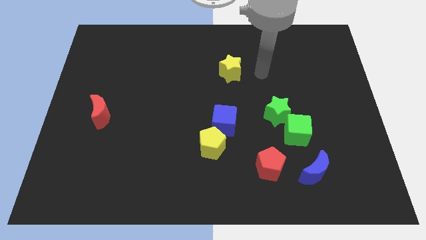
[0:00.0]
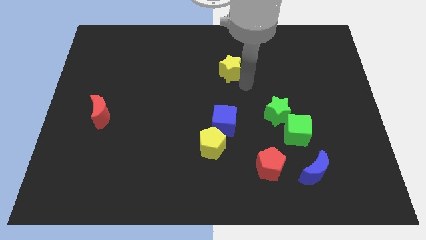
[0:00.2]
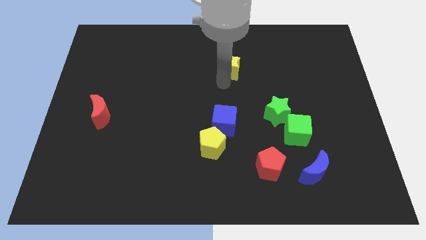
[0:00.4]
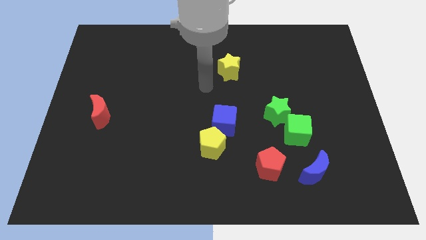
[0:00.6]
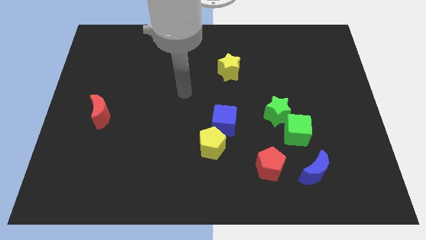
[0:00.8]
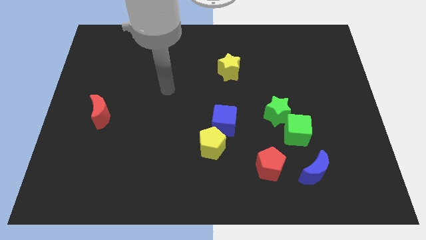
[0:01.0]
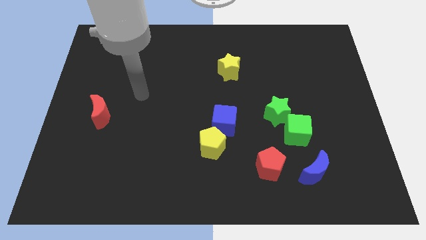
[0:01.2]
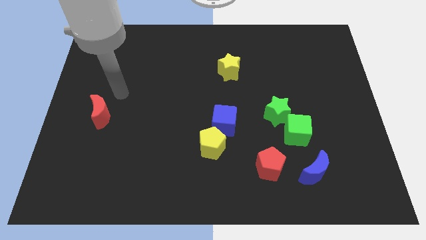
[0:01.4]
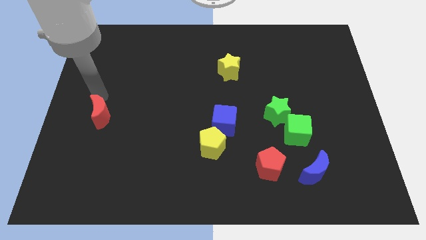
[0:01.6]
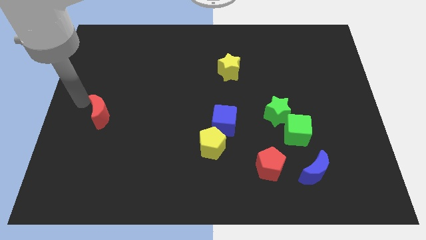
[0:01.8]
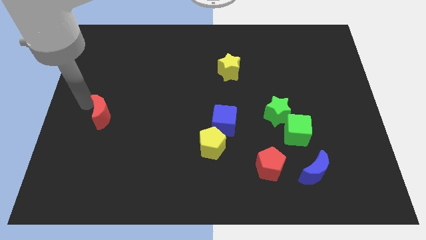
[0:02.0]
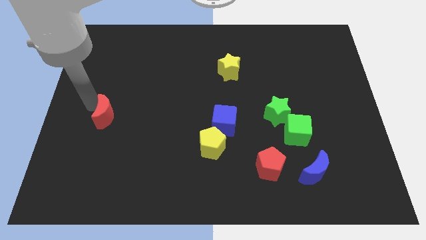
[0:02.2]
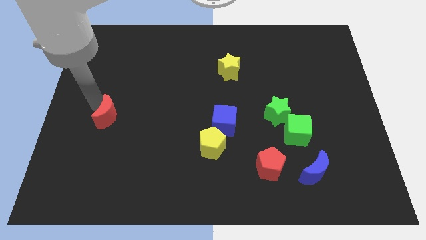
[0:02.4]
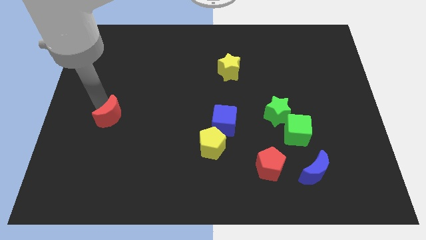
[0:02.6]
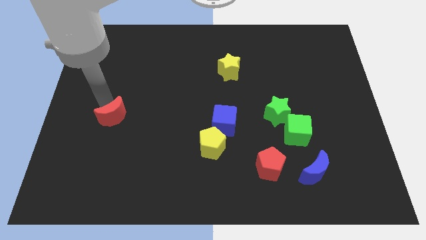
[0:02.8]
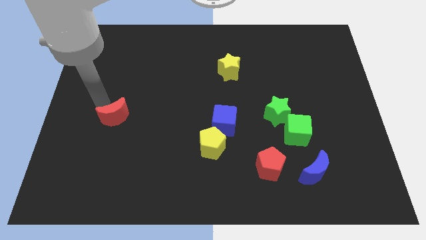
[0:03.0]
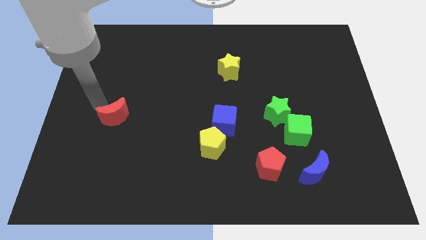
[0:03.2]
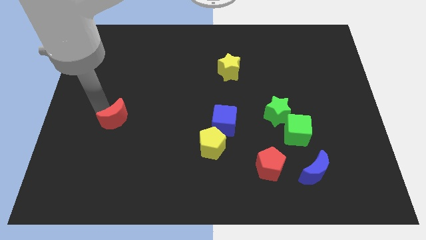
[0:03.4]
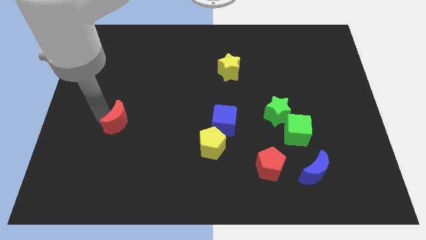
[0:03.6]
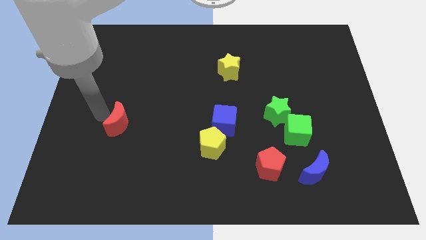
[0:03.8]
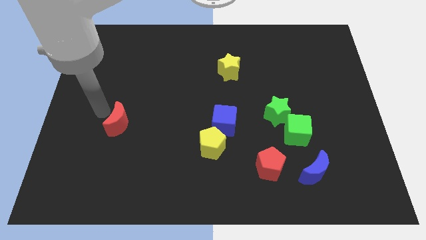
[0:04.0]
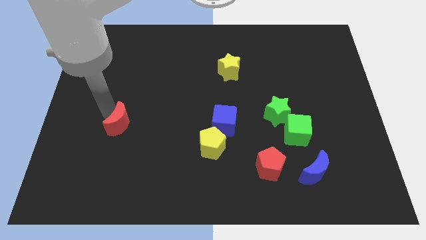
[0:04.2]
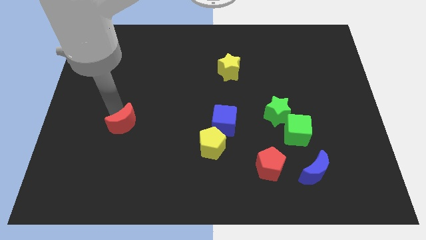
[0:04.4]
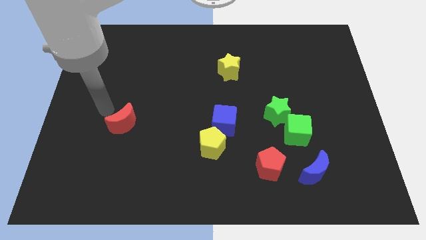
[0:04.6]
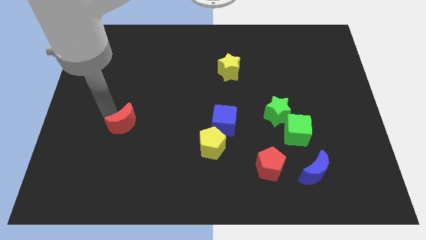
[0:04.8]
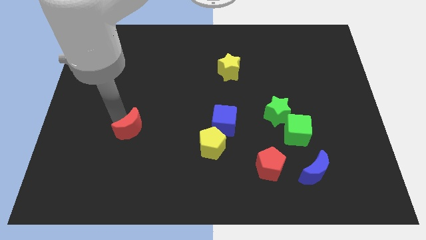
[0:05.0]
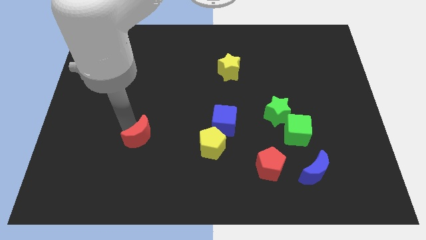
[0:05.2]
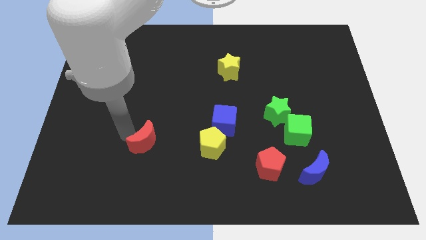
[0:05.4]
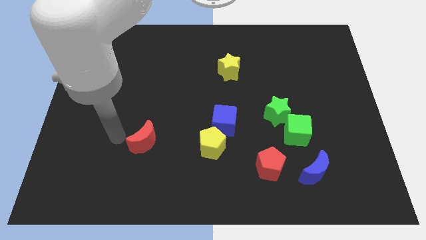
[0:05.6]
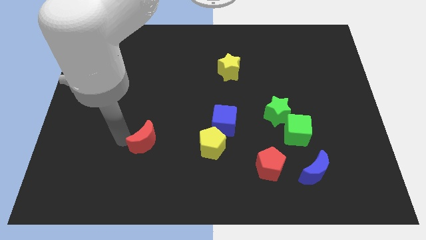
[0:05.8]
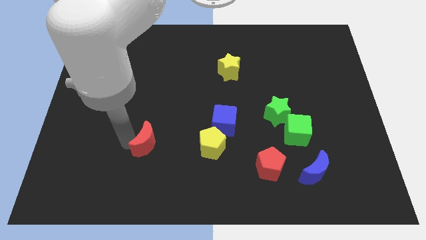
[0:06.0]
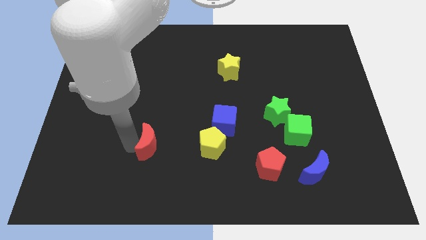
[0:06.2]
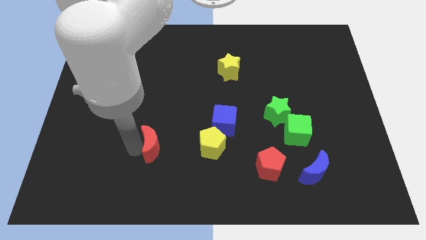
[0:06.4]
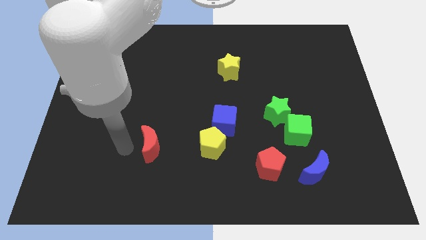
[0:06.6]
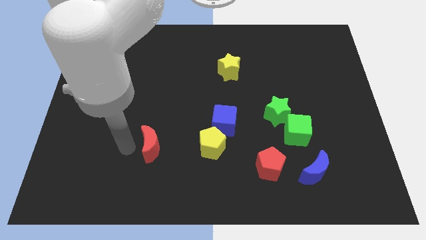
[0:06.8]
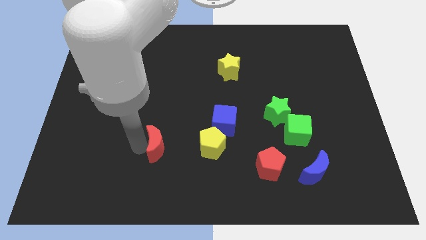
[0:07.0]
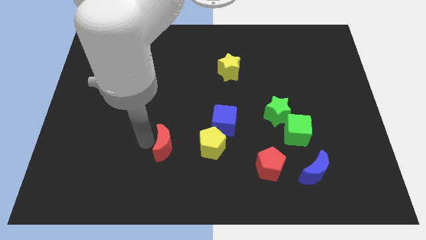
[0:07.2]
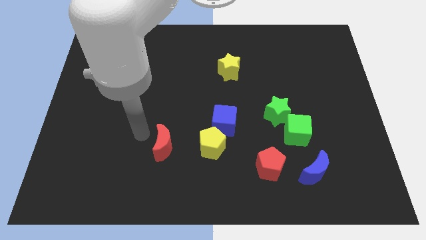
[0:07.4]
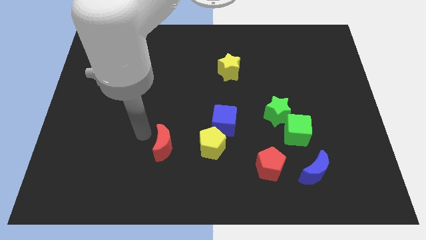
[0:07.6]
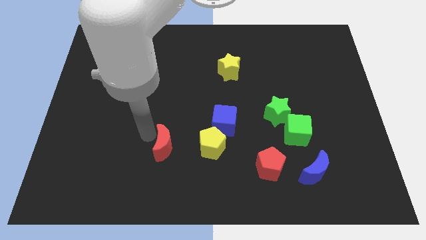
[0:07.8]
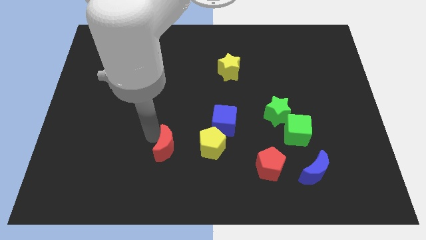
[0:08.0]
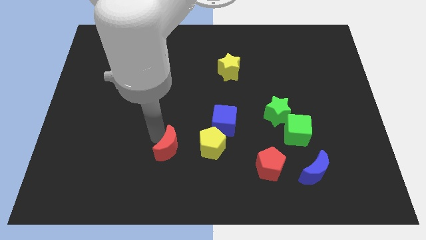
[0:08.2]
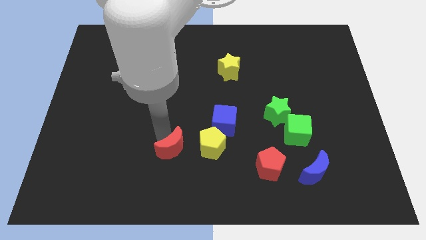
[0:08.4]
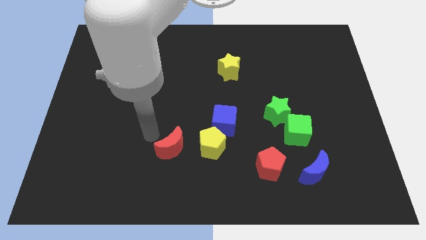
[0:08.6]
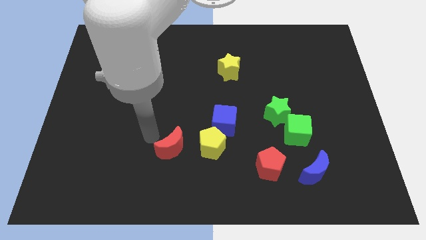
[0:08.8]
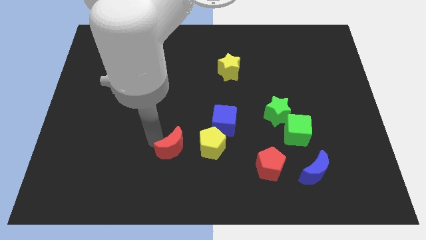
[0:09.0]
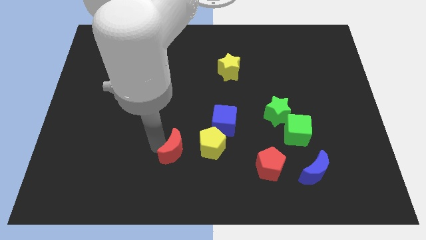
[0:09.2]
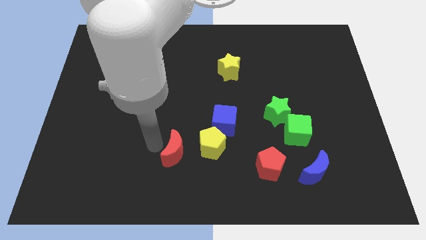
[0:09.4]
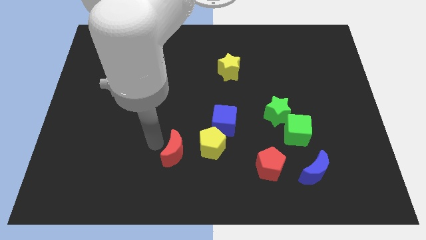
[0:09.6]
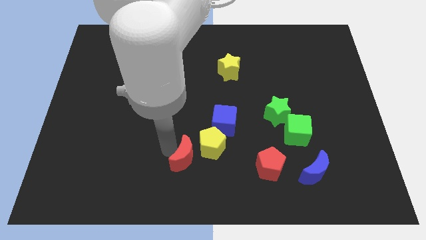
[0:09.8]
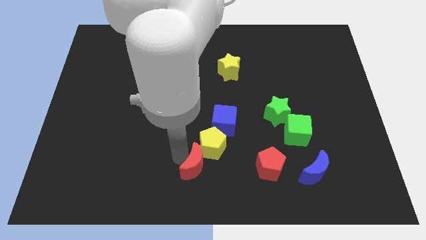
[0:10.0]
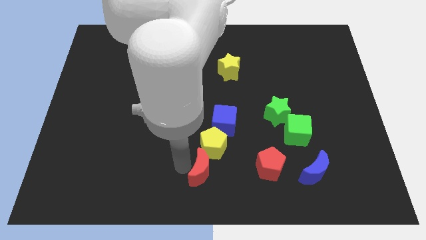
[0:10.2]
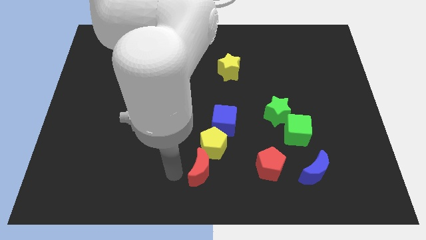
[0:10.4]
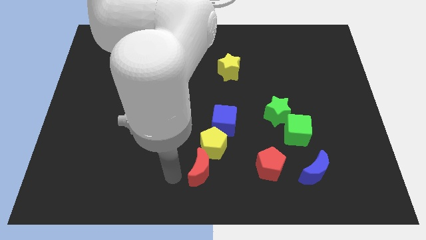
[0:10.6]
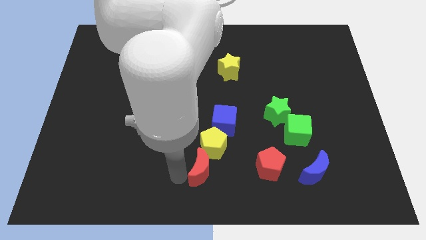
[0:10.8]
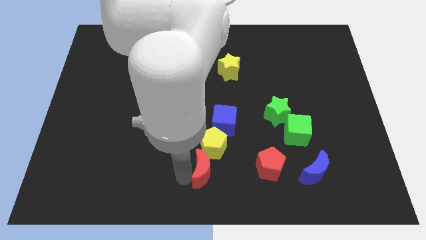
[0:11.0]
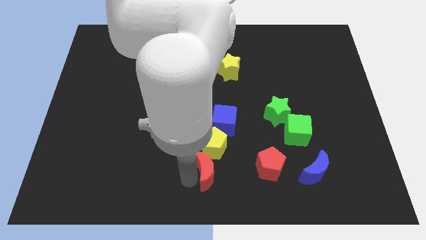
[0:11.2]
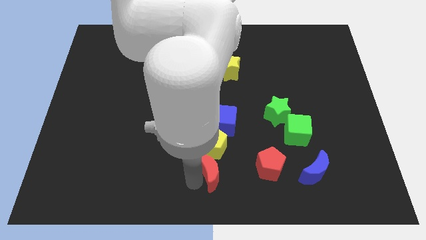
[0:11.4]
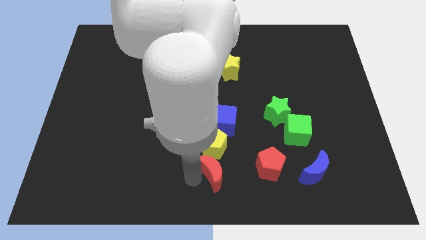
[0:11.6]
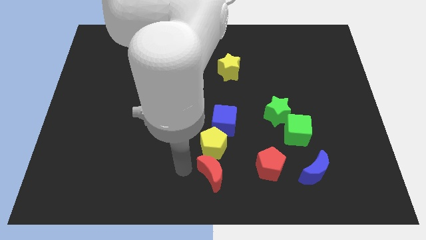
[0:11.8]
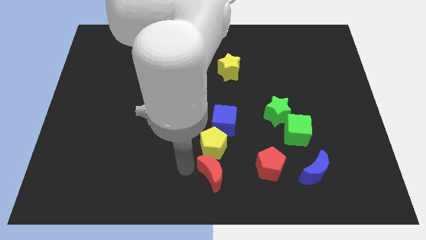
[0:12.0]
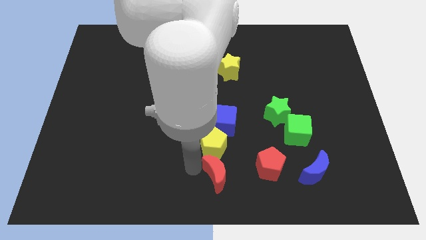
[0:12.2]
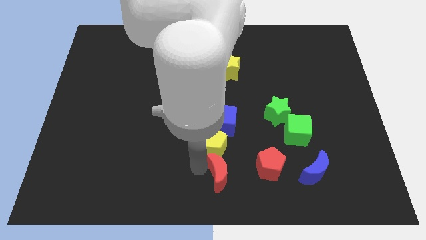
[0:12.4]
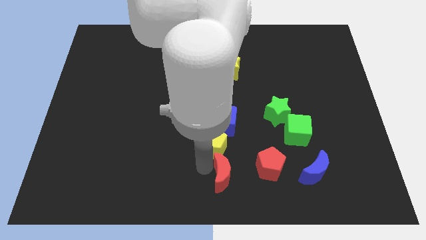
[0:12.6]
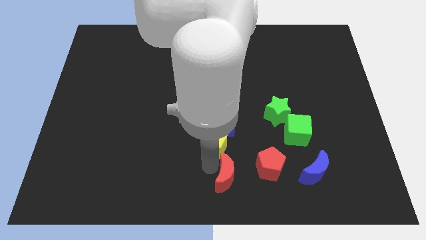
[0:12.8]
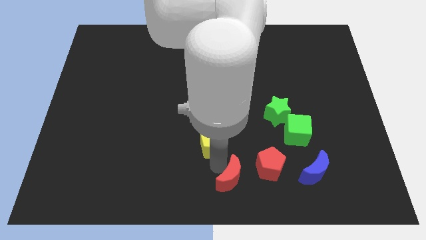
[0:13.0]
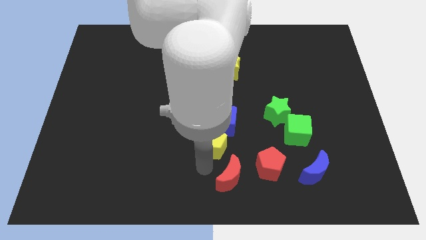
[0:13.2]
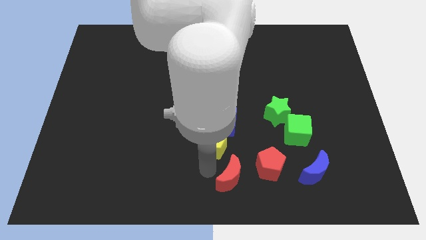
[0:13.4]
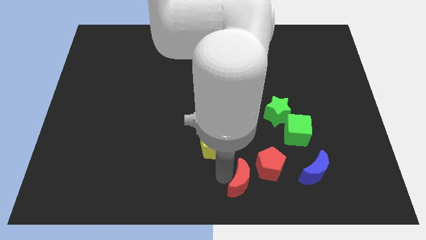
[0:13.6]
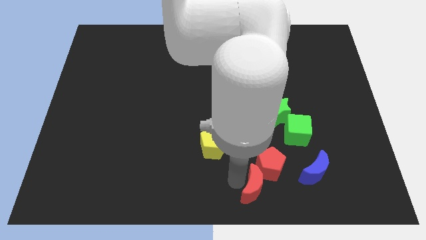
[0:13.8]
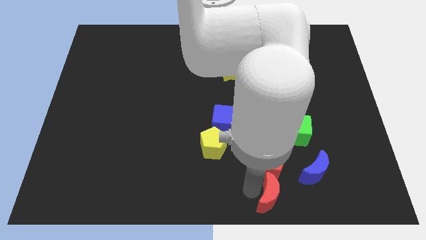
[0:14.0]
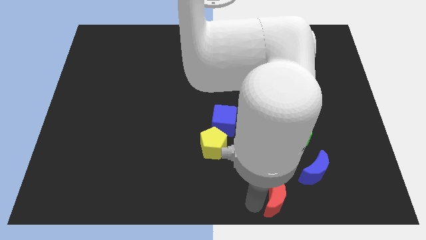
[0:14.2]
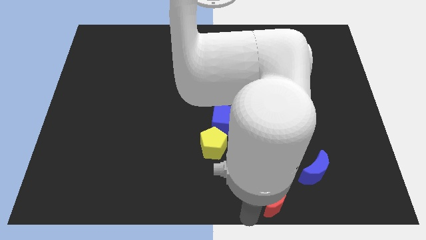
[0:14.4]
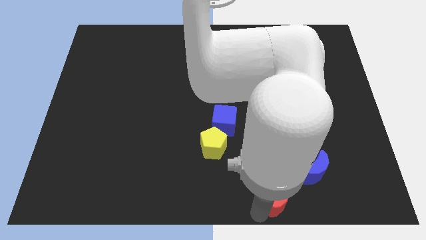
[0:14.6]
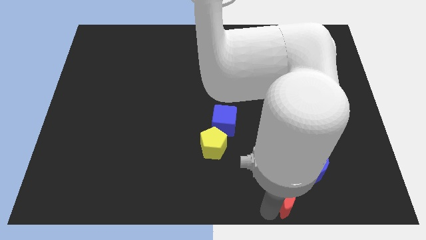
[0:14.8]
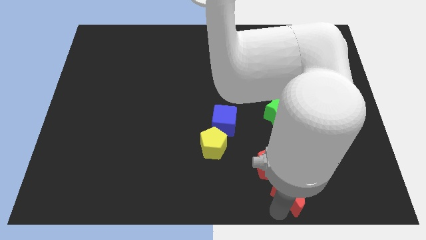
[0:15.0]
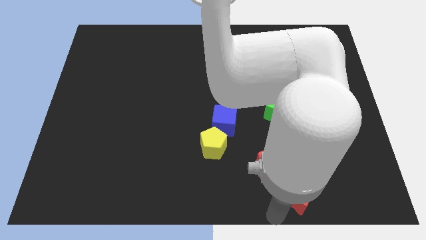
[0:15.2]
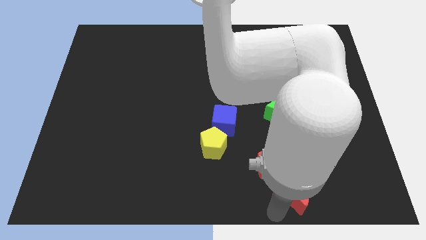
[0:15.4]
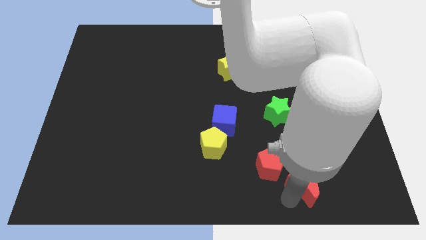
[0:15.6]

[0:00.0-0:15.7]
slide the red moon to the blue moon
